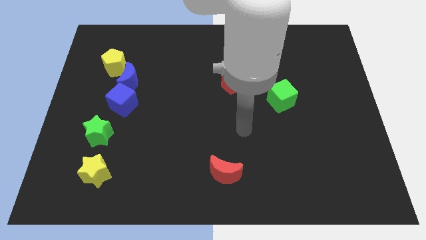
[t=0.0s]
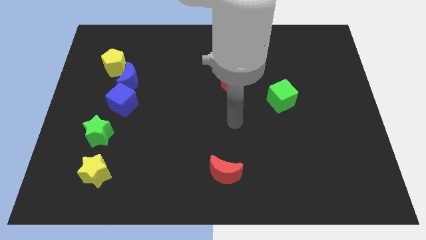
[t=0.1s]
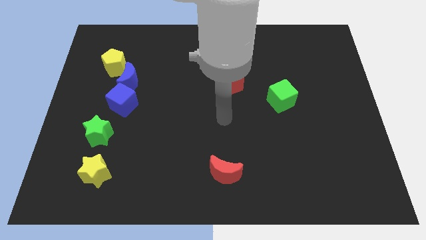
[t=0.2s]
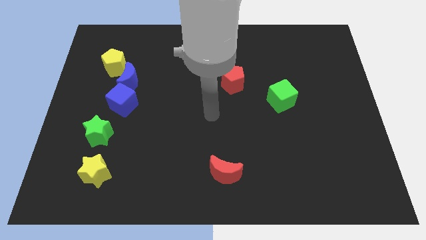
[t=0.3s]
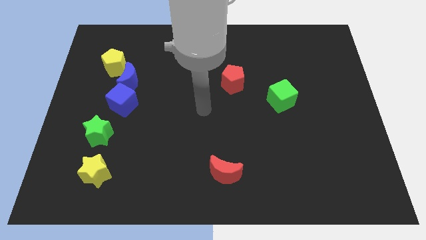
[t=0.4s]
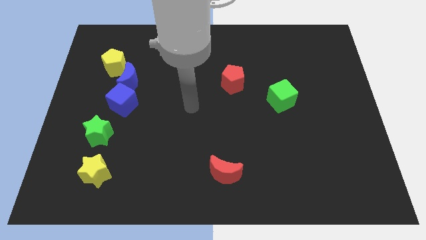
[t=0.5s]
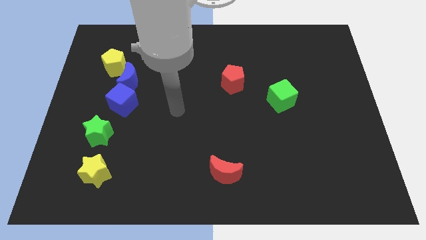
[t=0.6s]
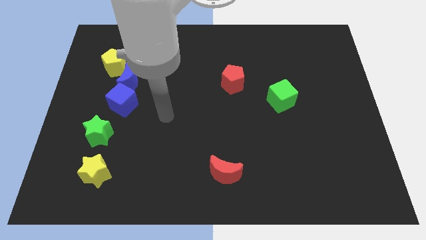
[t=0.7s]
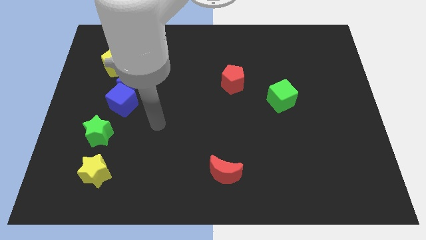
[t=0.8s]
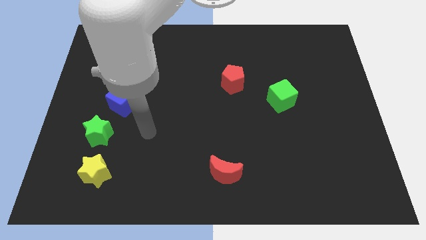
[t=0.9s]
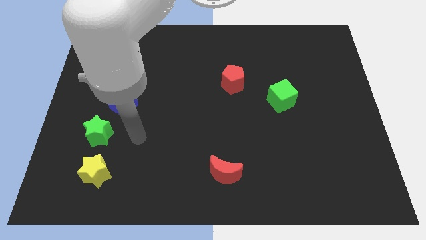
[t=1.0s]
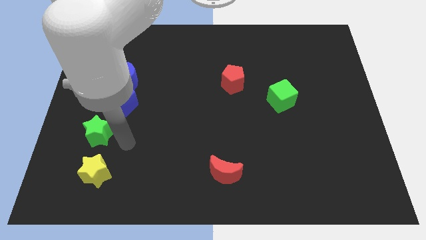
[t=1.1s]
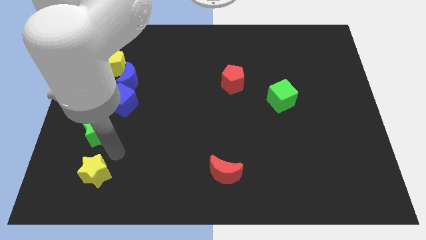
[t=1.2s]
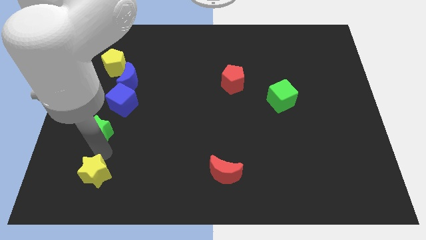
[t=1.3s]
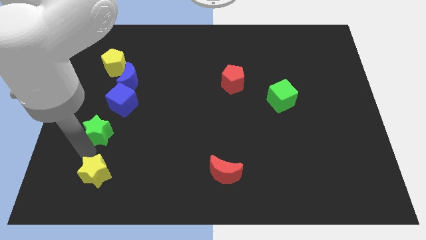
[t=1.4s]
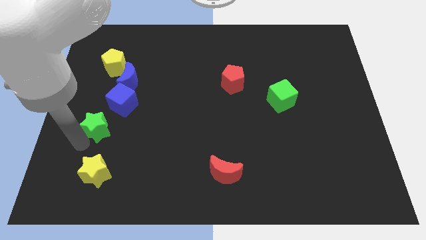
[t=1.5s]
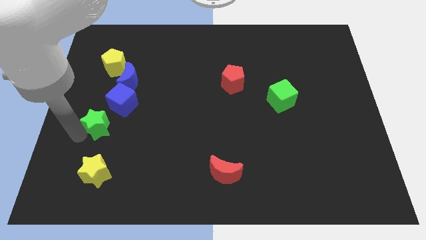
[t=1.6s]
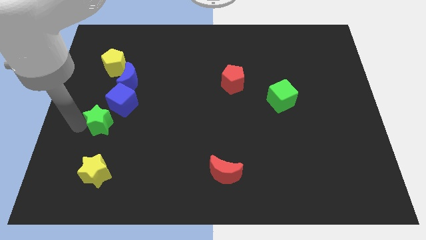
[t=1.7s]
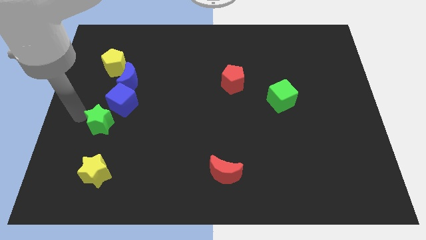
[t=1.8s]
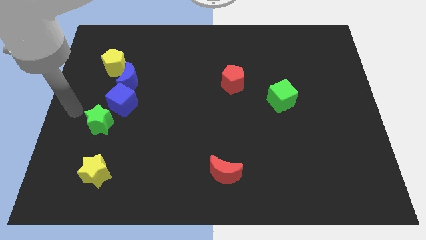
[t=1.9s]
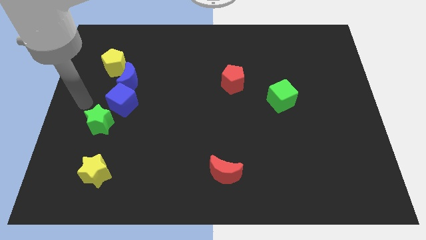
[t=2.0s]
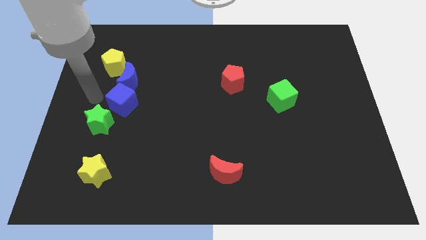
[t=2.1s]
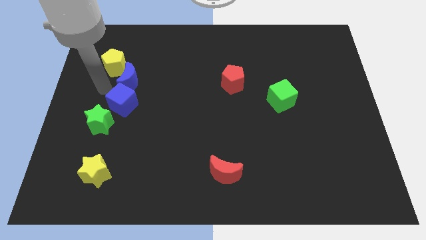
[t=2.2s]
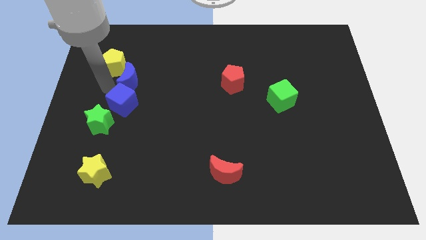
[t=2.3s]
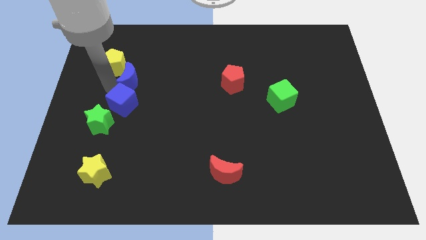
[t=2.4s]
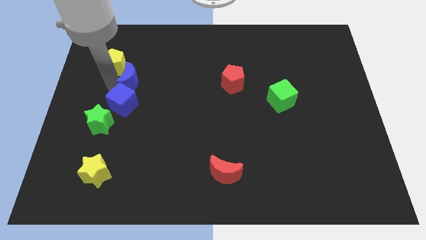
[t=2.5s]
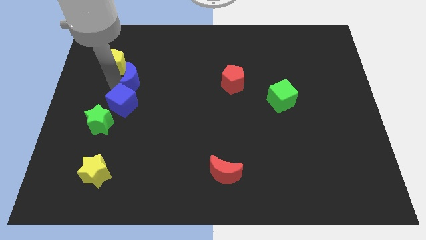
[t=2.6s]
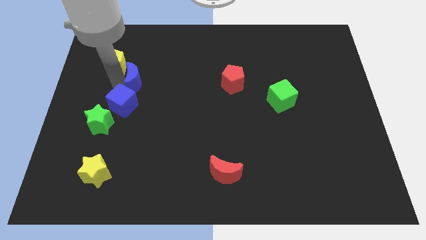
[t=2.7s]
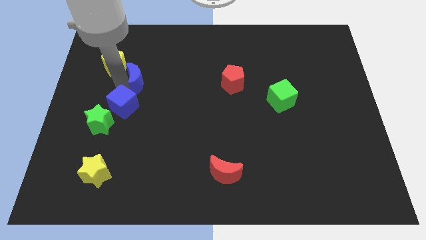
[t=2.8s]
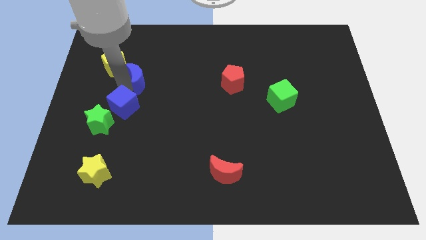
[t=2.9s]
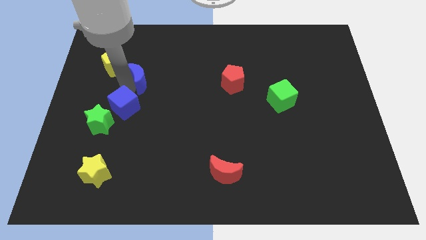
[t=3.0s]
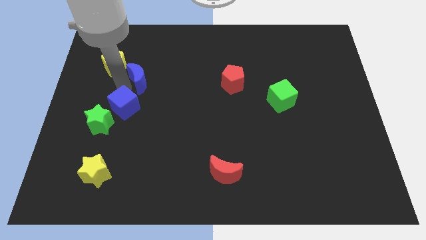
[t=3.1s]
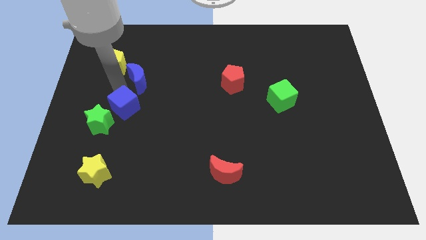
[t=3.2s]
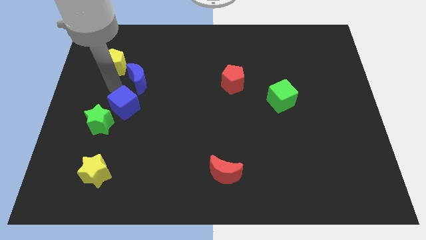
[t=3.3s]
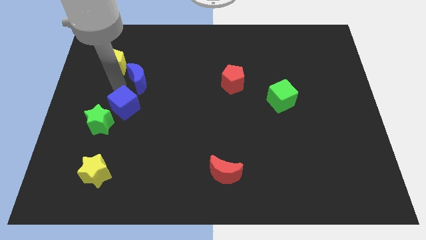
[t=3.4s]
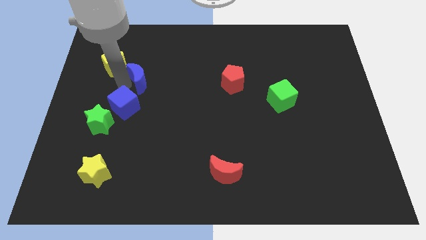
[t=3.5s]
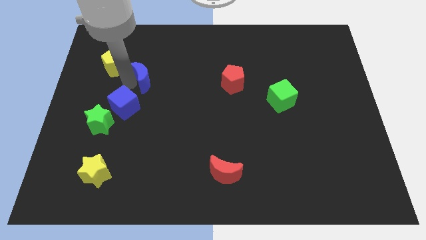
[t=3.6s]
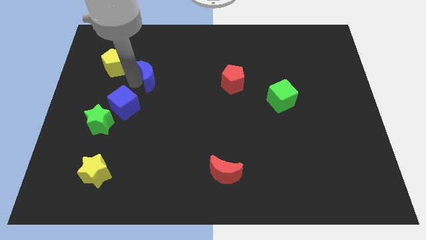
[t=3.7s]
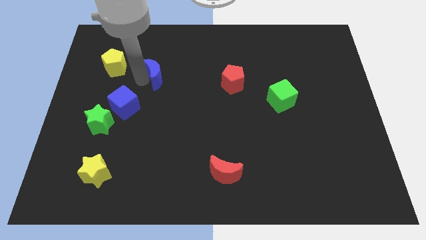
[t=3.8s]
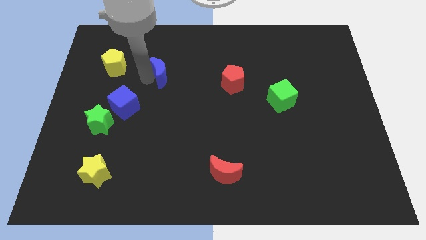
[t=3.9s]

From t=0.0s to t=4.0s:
pull the blue moon apart from the blue cube and yellow pentagon

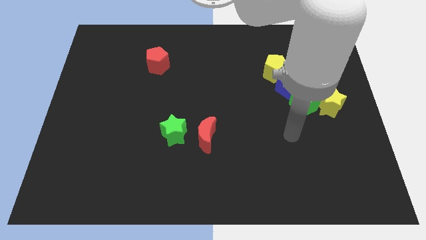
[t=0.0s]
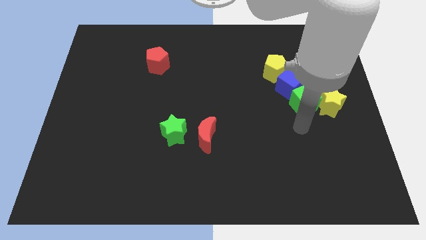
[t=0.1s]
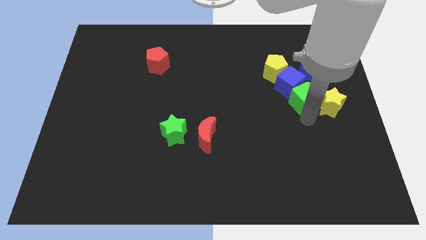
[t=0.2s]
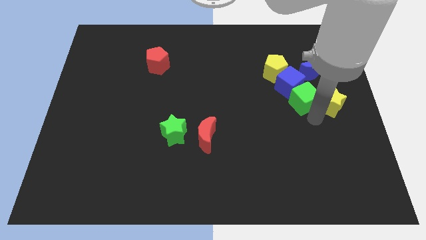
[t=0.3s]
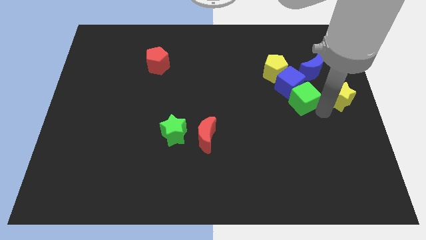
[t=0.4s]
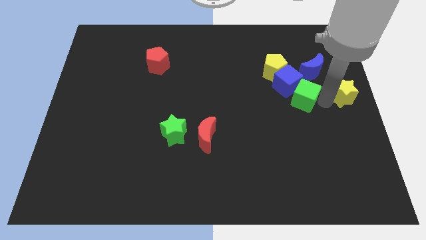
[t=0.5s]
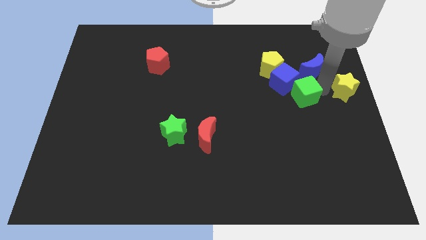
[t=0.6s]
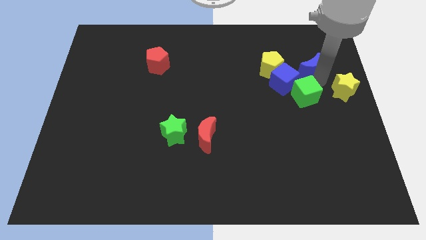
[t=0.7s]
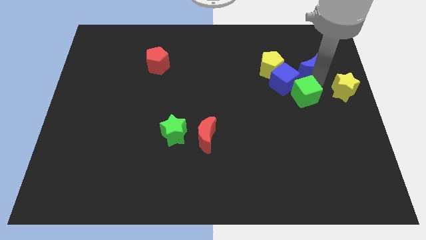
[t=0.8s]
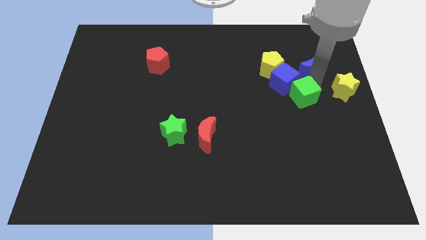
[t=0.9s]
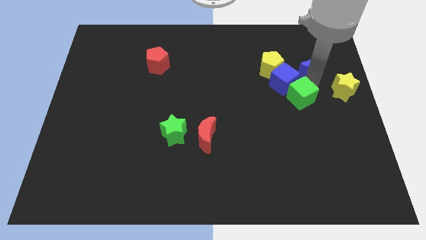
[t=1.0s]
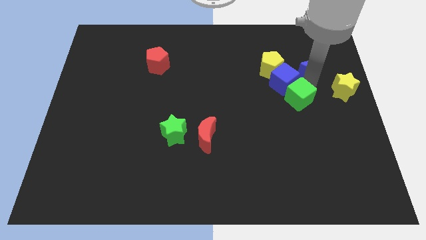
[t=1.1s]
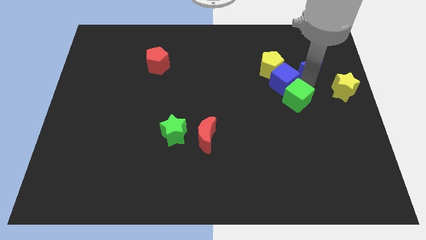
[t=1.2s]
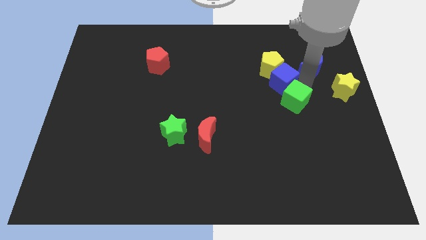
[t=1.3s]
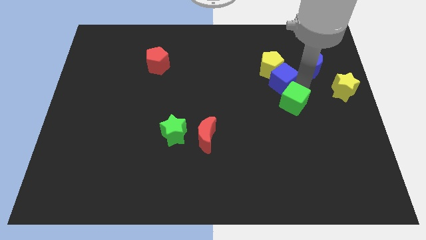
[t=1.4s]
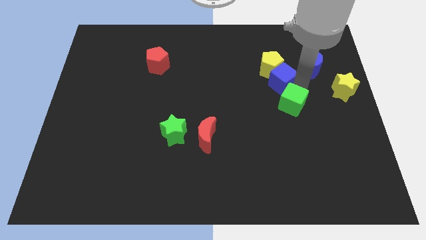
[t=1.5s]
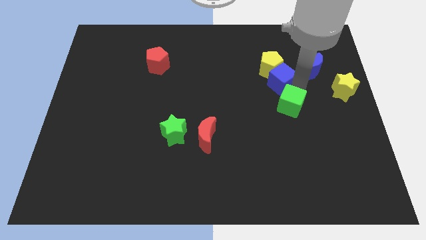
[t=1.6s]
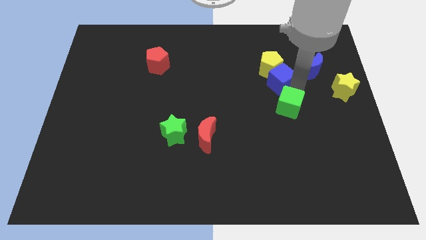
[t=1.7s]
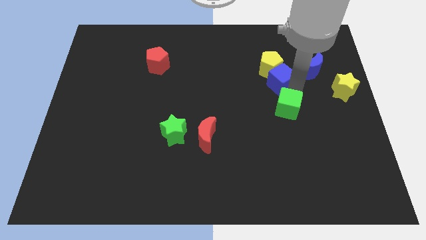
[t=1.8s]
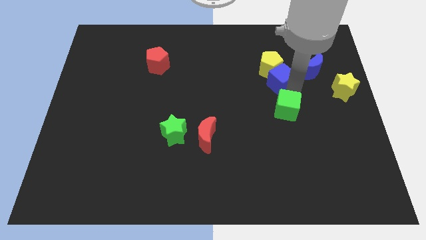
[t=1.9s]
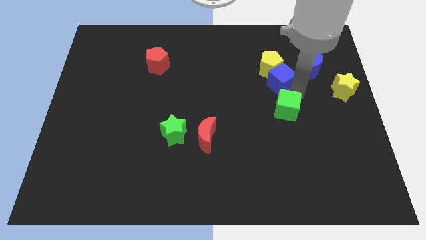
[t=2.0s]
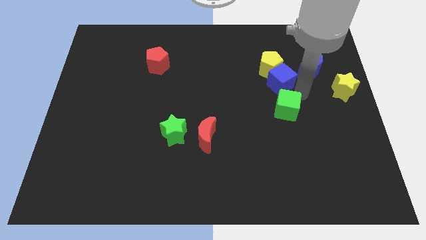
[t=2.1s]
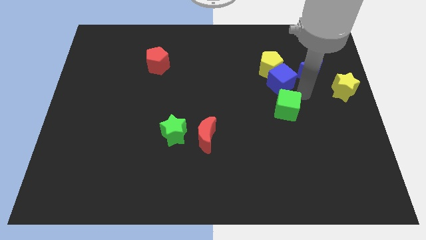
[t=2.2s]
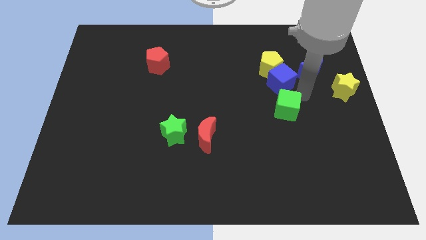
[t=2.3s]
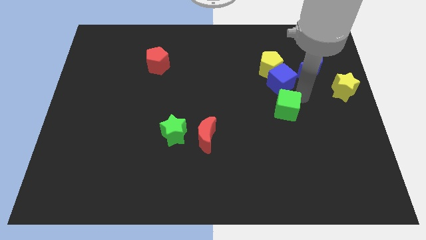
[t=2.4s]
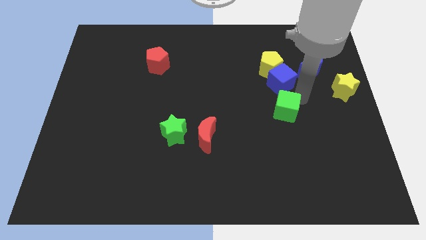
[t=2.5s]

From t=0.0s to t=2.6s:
move the green cube away from the blue cube and yellow star

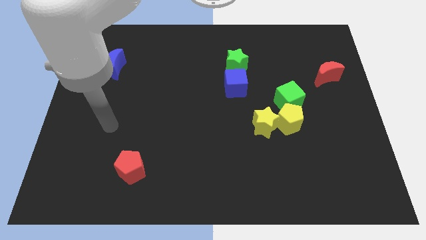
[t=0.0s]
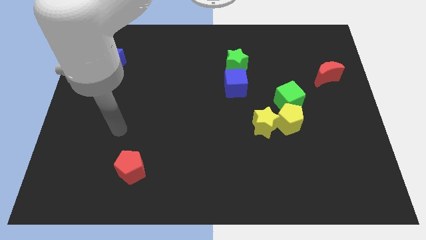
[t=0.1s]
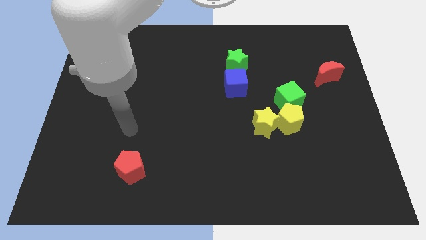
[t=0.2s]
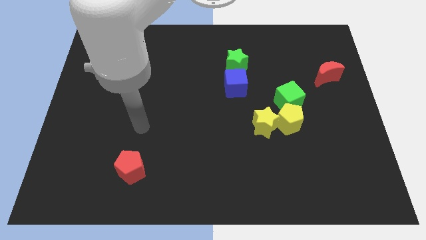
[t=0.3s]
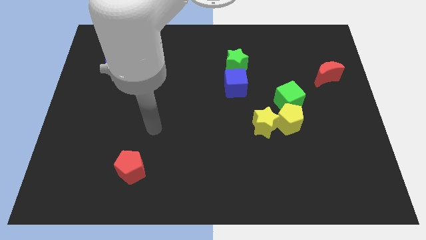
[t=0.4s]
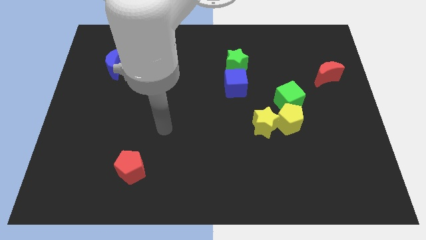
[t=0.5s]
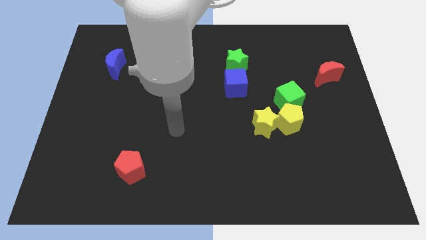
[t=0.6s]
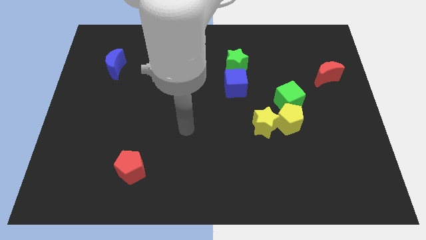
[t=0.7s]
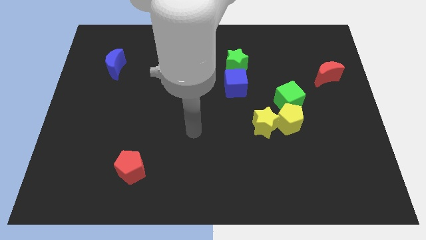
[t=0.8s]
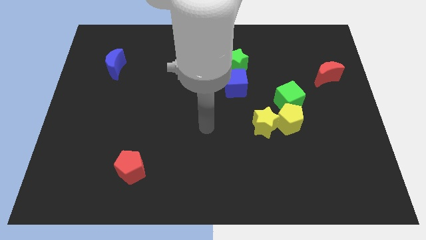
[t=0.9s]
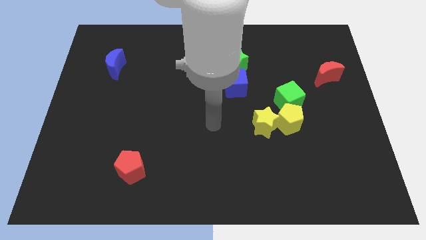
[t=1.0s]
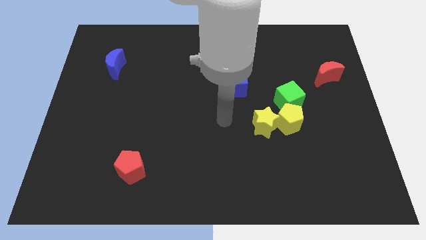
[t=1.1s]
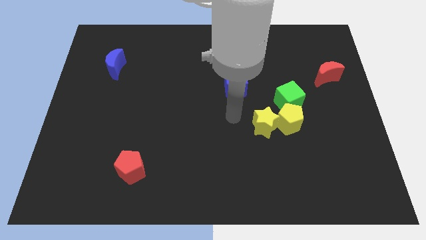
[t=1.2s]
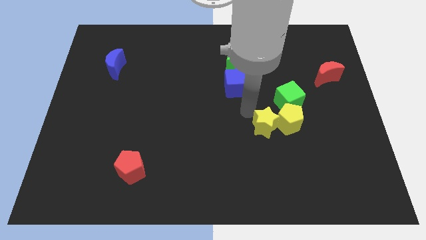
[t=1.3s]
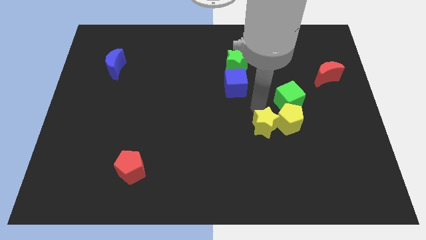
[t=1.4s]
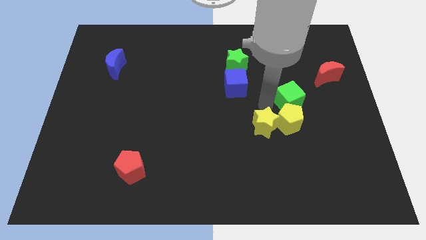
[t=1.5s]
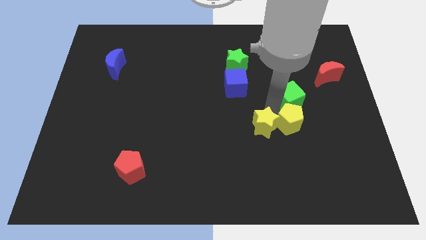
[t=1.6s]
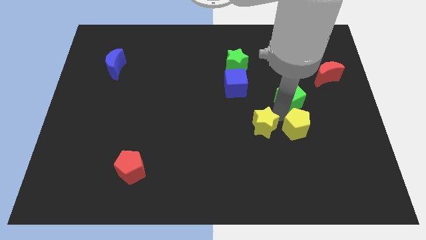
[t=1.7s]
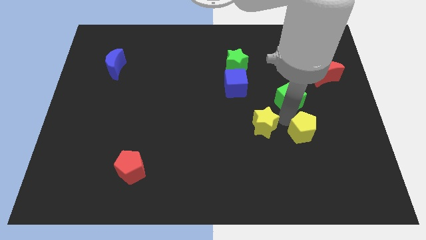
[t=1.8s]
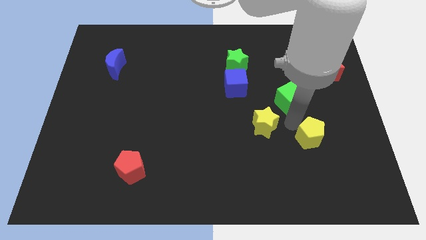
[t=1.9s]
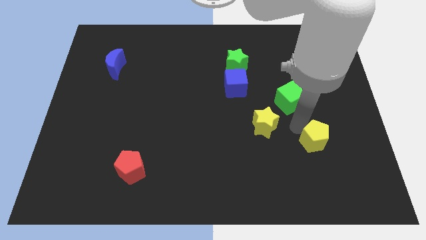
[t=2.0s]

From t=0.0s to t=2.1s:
pull the yellow pentagon apart from the yellow star and green cube

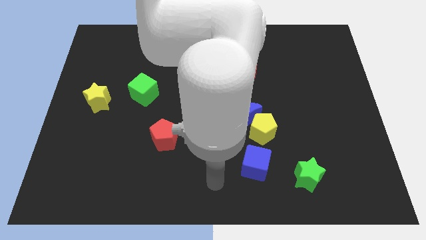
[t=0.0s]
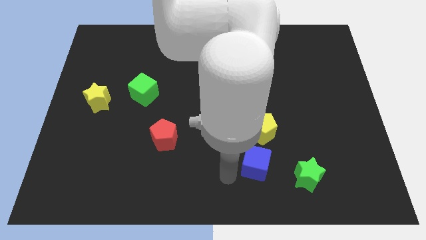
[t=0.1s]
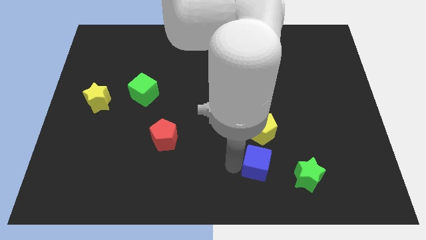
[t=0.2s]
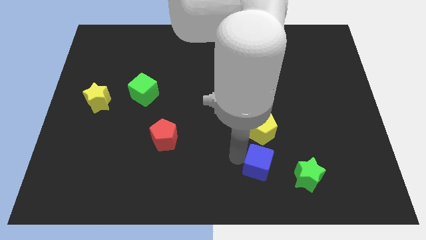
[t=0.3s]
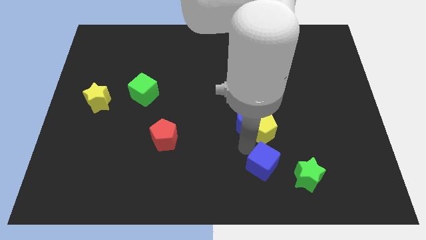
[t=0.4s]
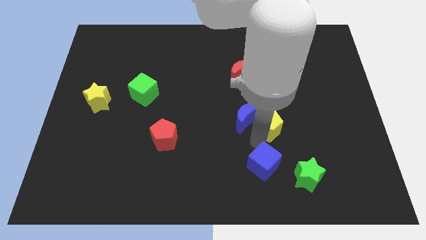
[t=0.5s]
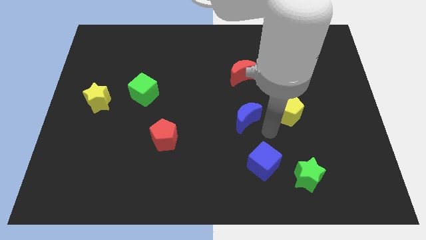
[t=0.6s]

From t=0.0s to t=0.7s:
pull the blue moon apart from the yellow pentagon
